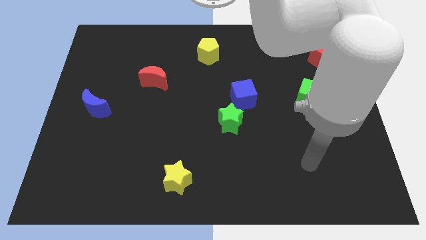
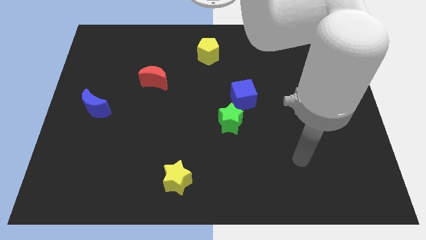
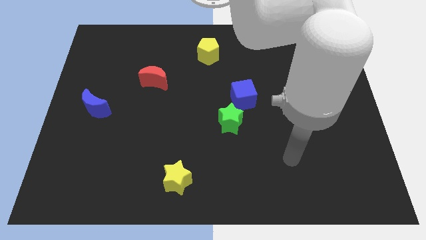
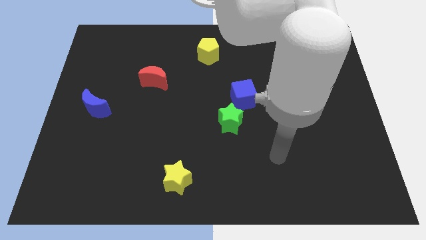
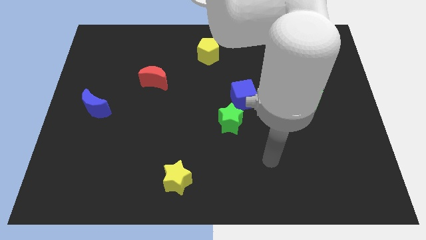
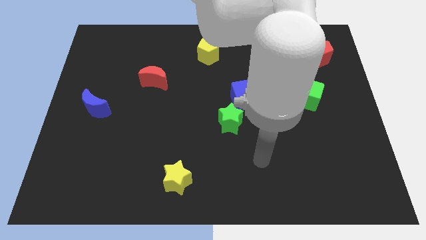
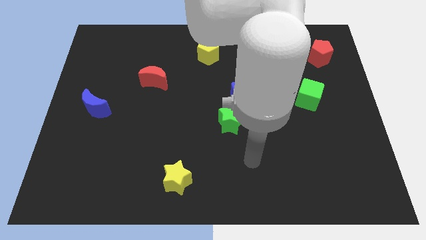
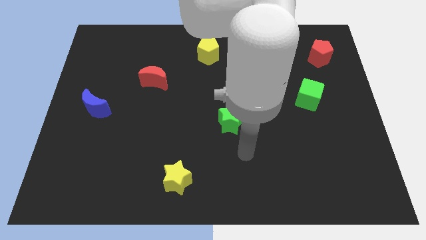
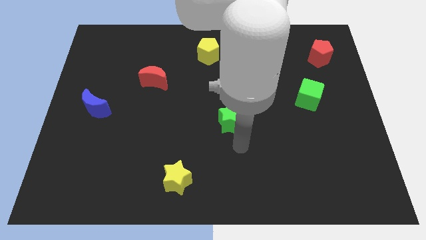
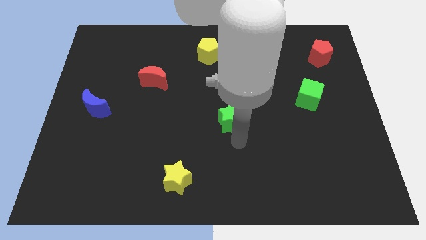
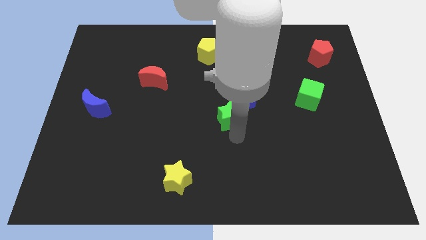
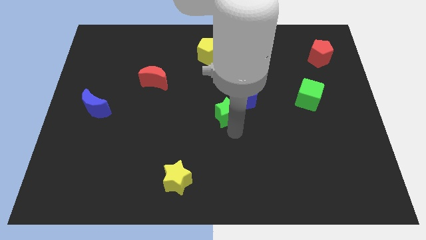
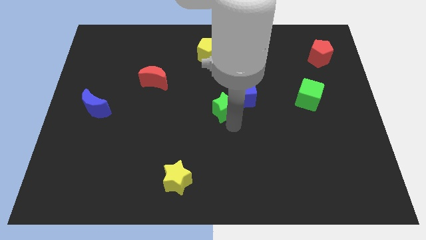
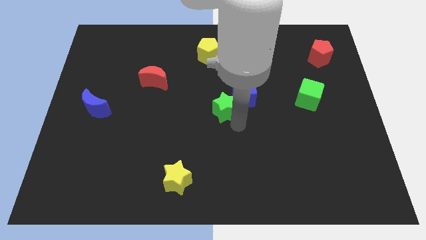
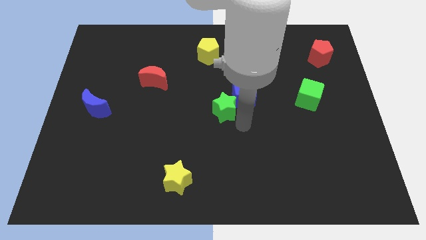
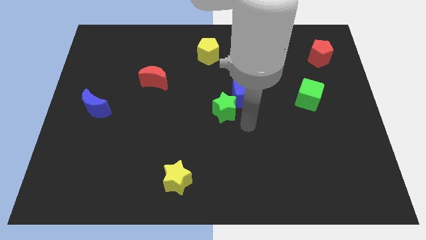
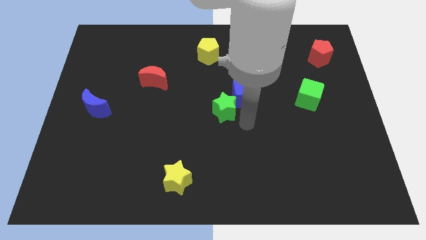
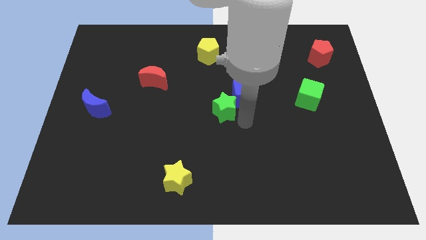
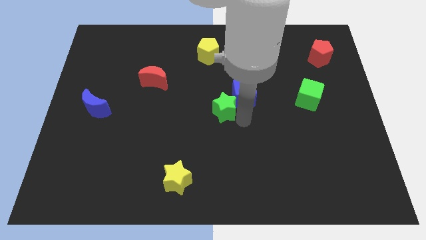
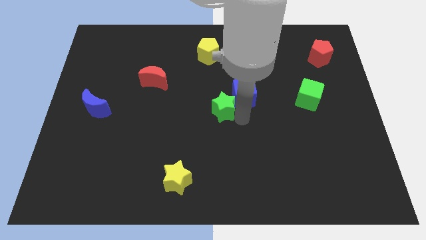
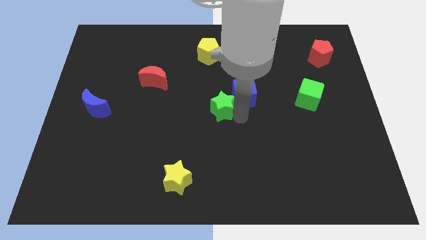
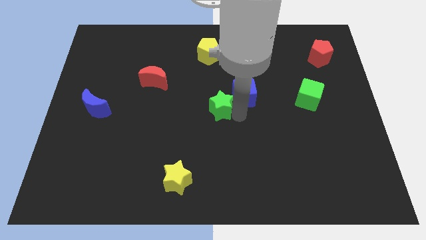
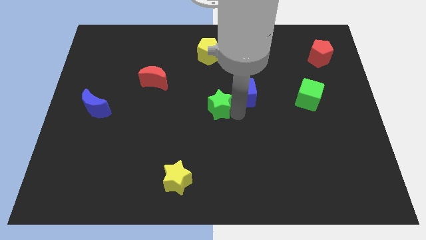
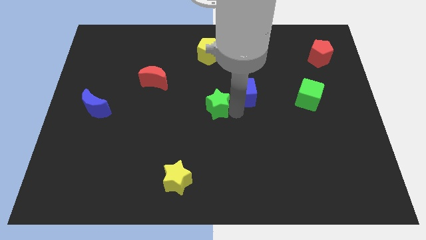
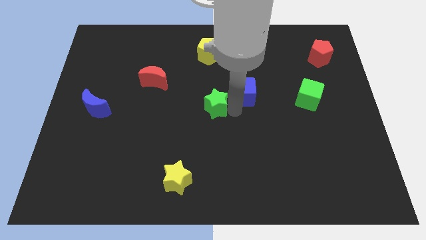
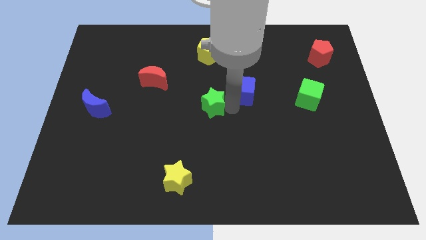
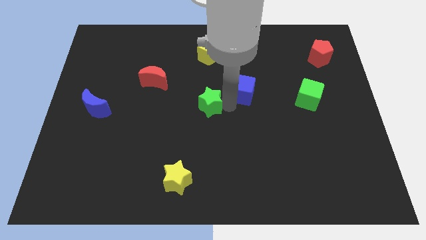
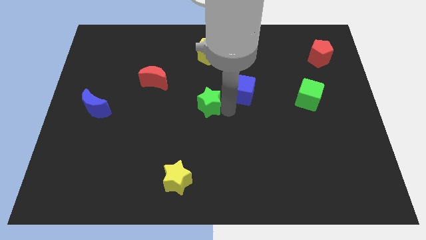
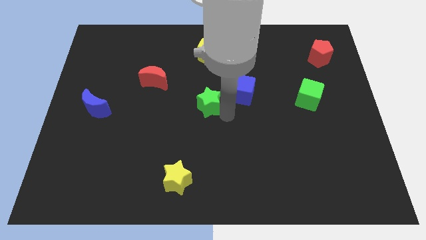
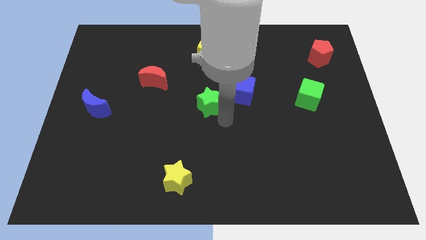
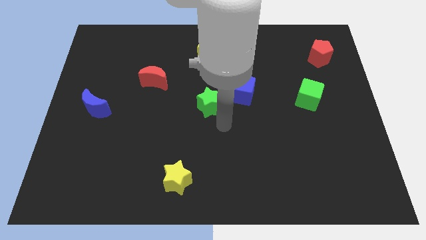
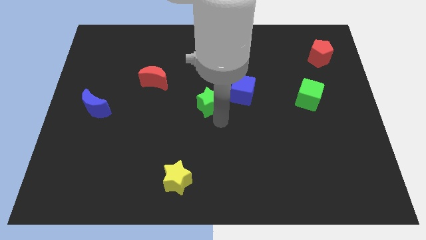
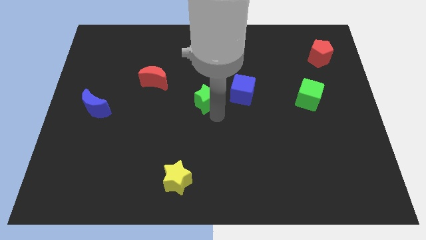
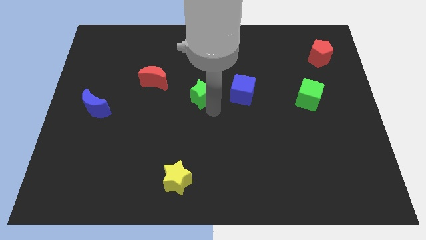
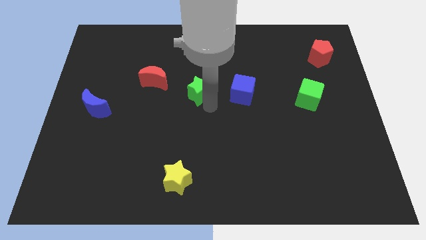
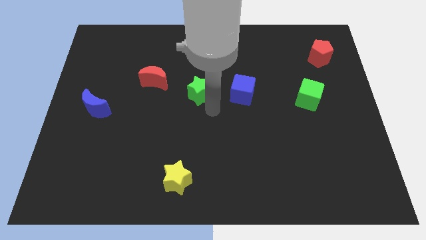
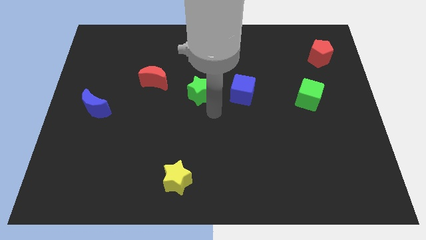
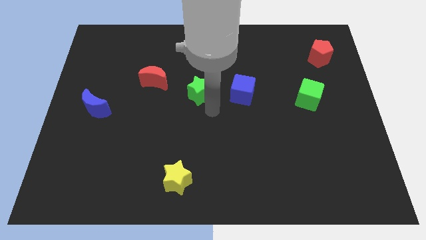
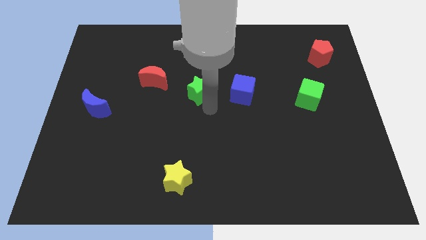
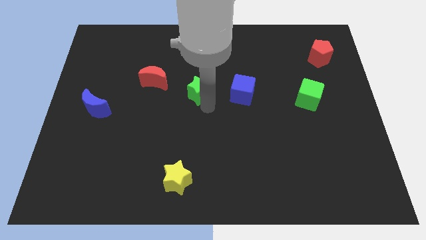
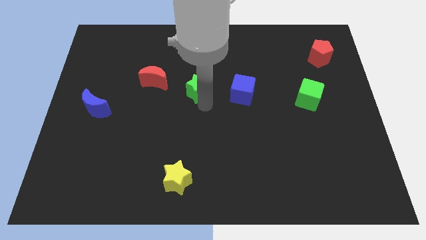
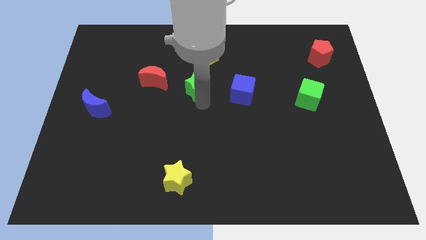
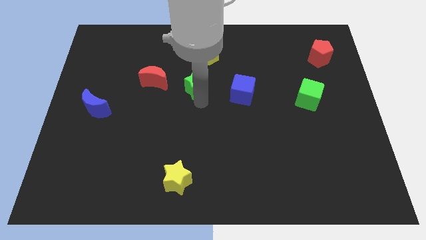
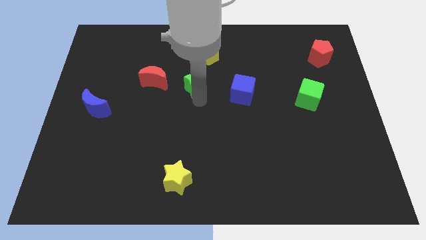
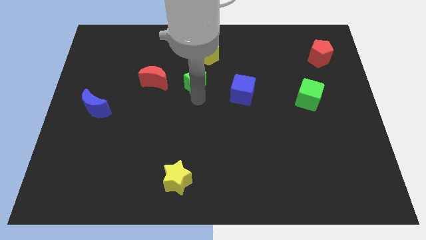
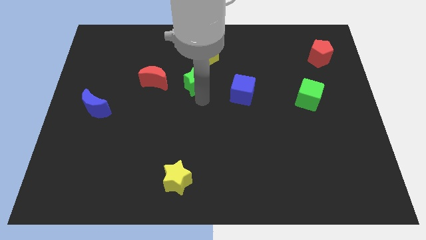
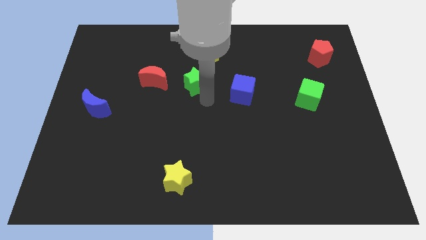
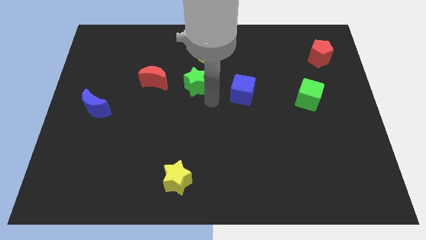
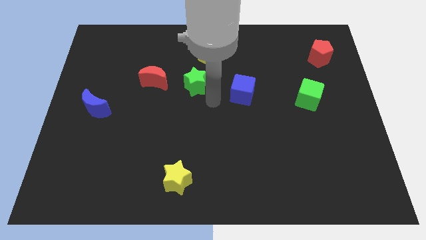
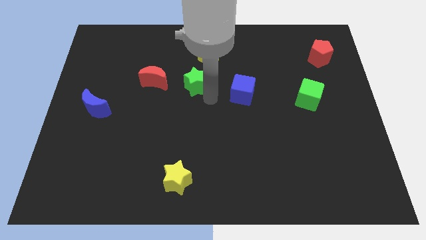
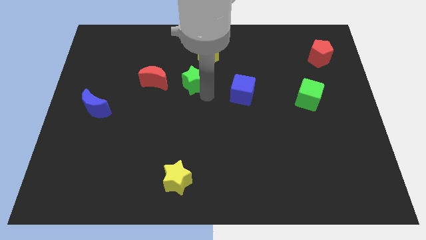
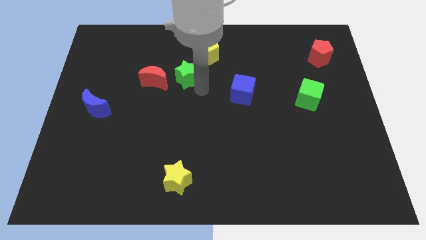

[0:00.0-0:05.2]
put the green star to the top right side of the red moon

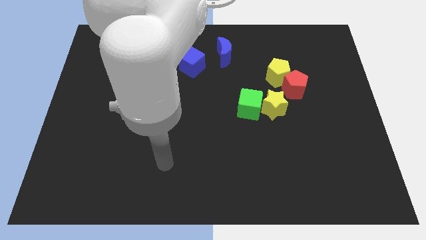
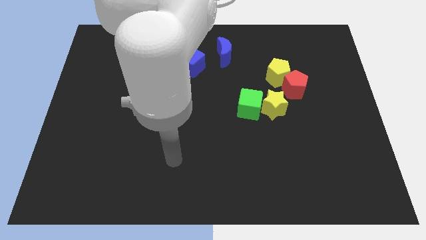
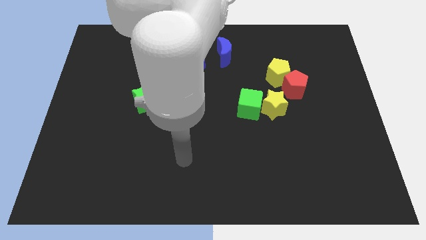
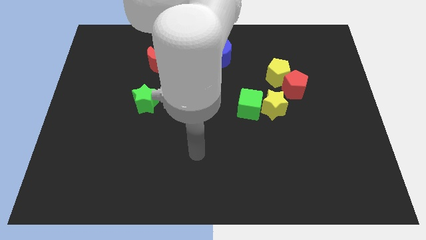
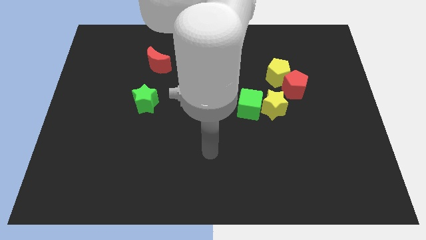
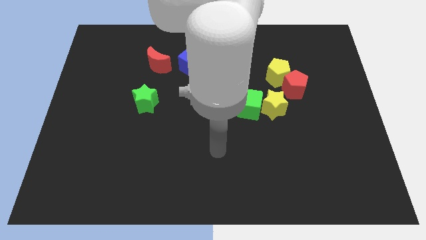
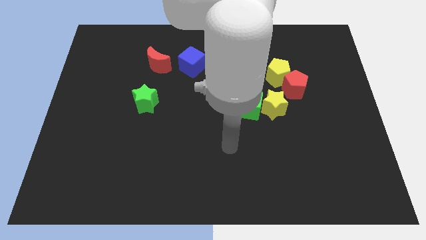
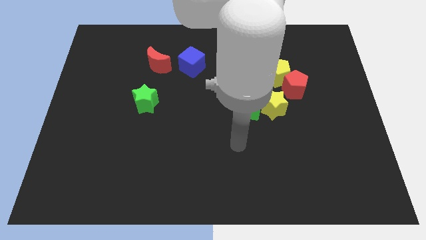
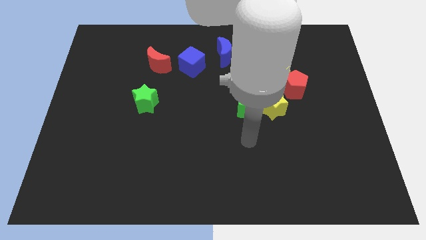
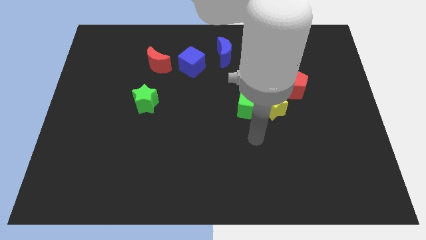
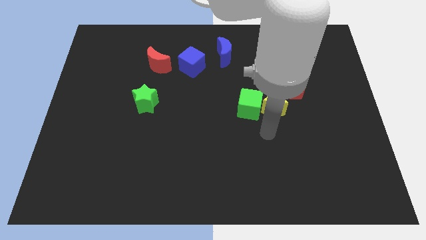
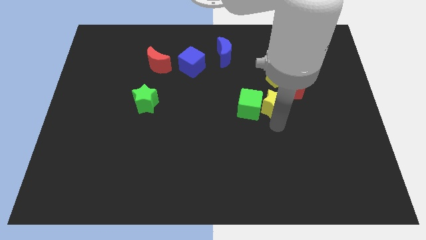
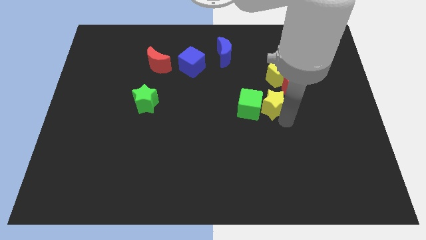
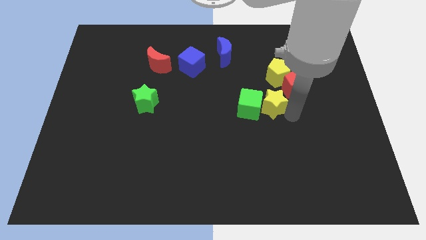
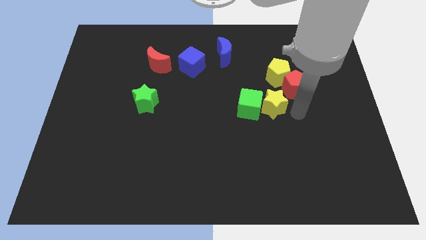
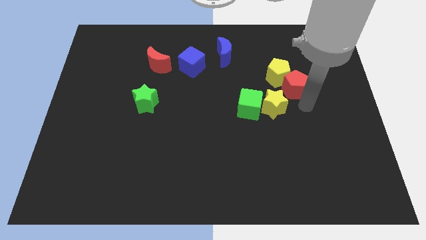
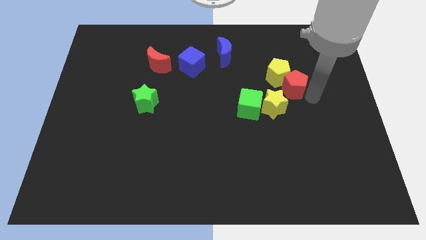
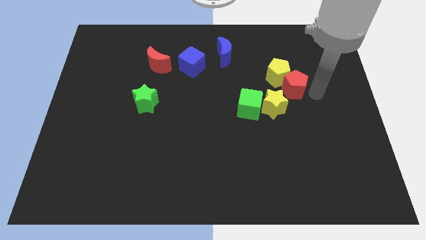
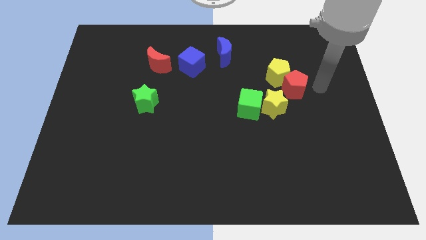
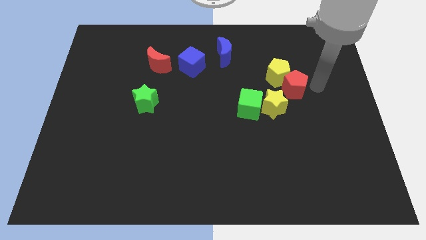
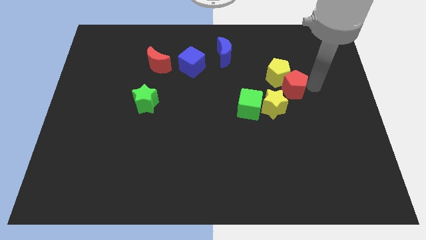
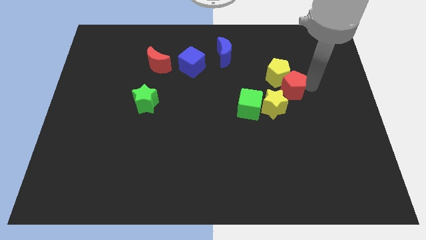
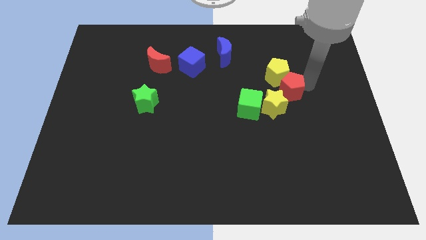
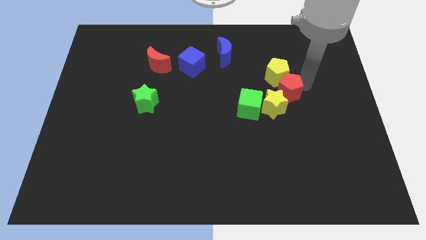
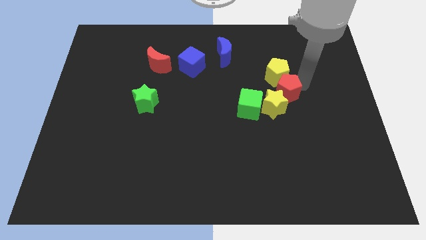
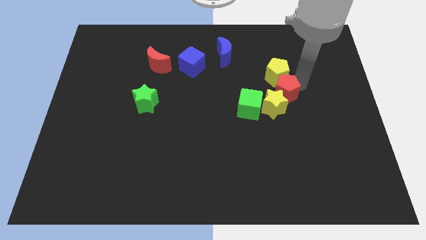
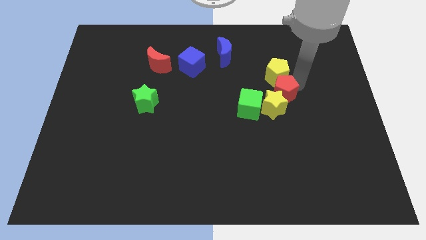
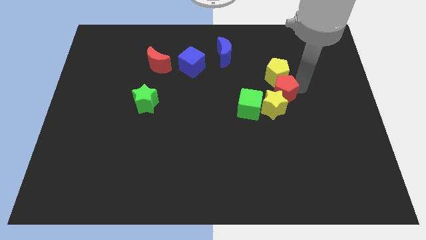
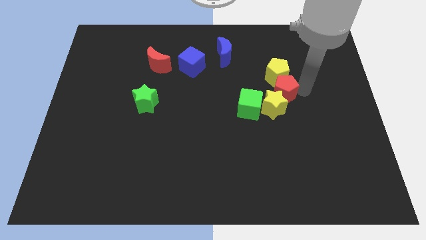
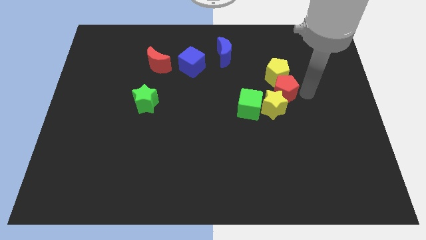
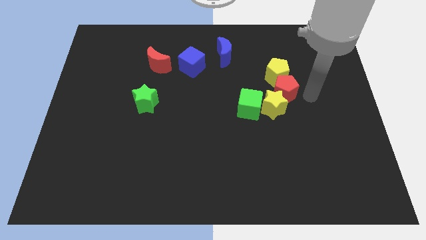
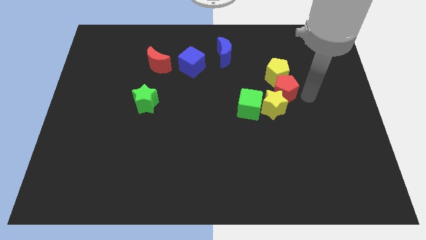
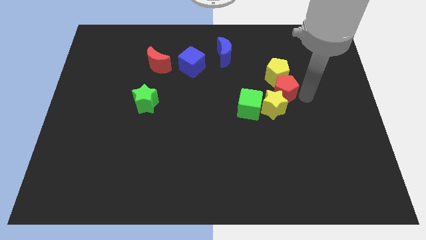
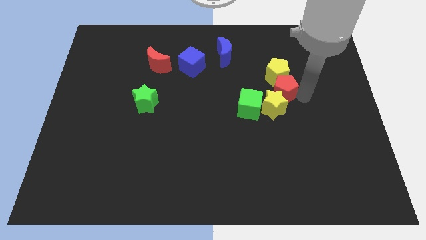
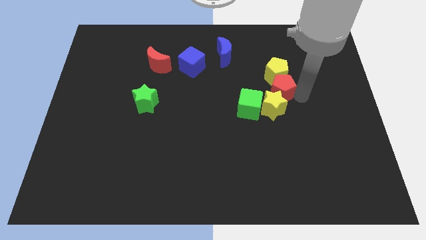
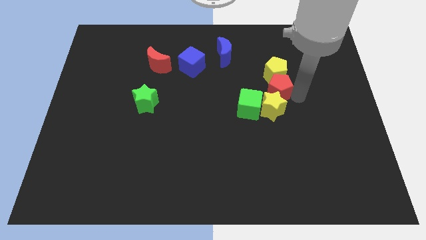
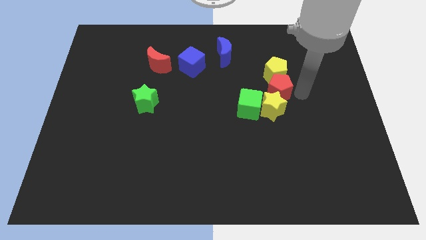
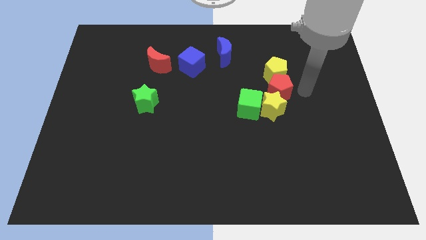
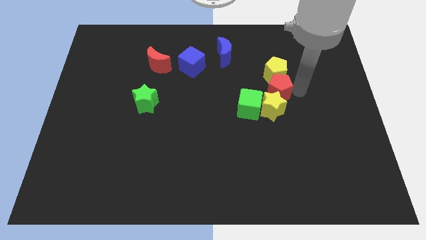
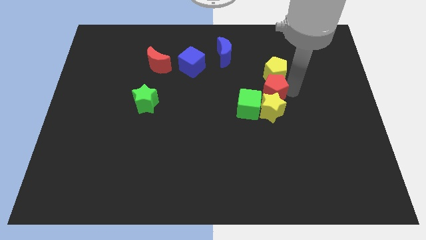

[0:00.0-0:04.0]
push the red pentagon diagonally up and to the left of the yellow star
